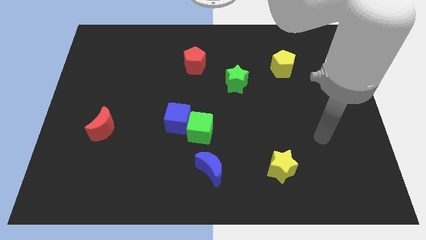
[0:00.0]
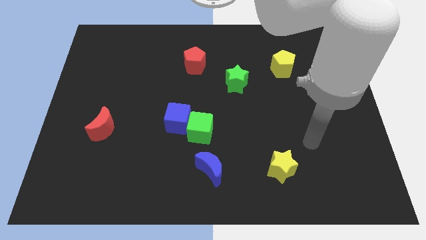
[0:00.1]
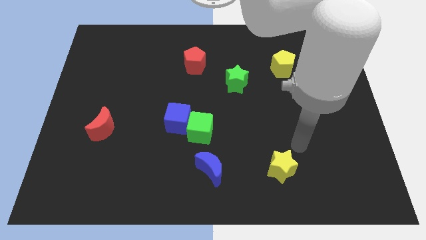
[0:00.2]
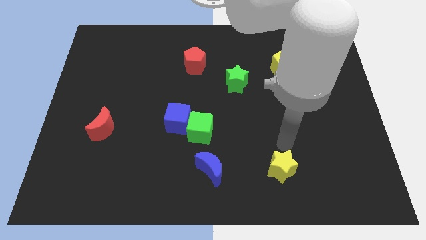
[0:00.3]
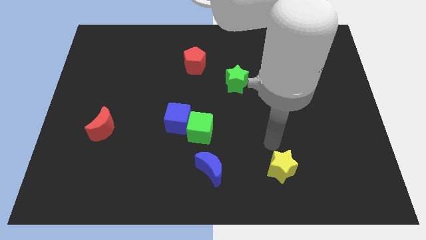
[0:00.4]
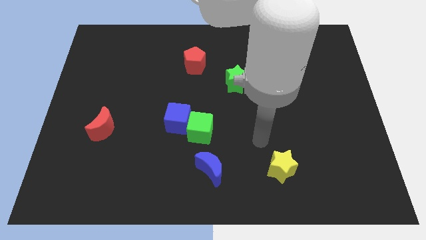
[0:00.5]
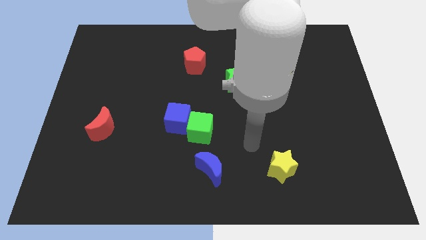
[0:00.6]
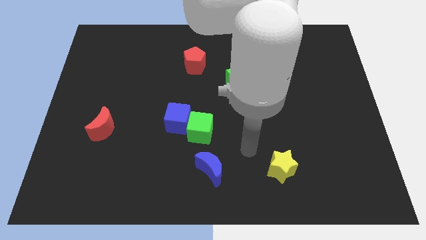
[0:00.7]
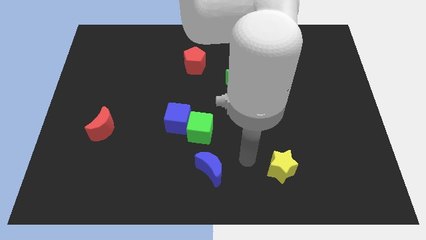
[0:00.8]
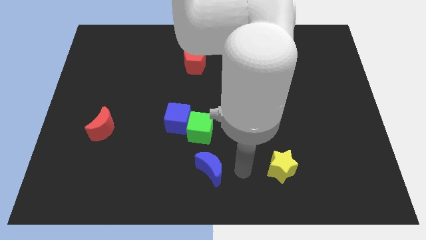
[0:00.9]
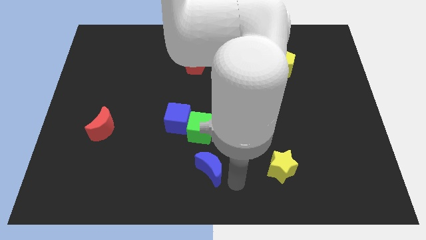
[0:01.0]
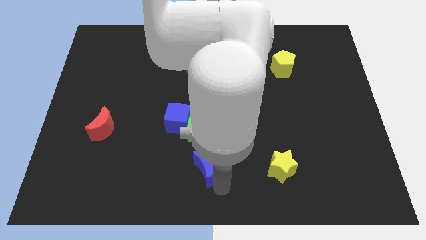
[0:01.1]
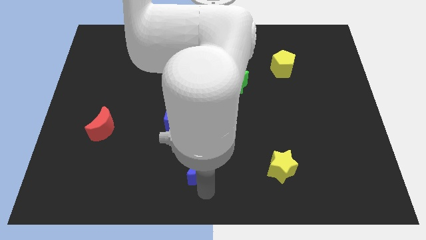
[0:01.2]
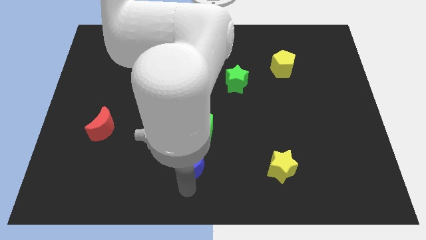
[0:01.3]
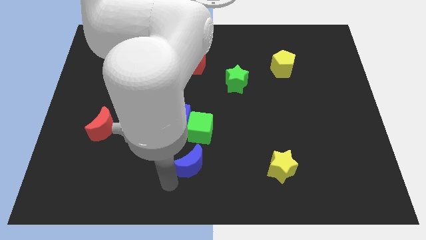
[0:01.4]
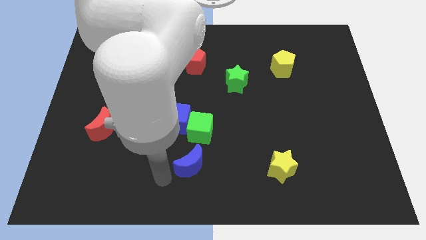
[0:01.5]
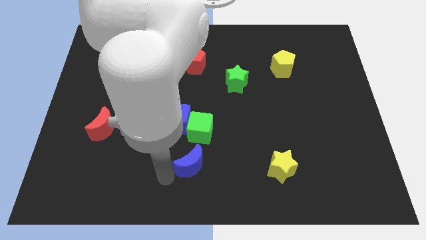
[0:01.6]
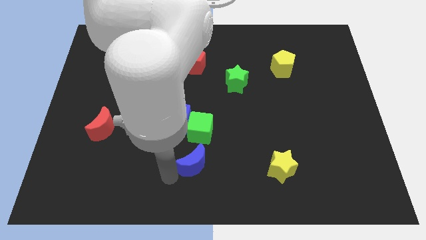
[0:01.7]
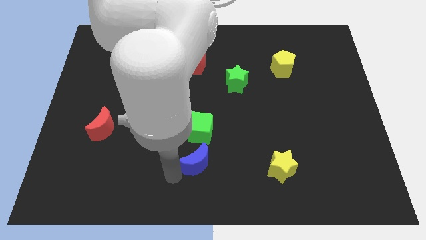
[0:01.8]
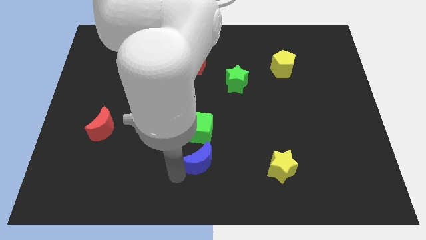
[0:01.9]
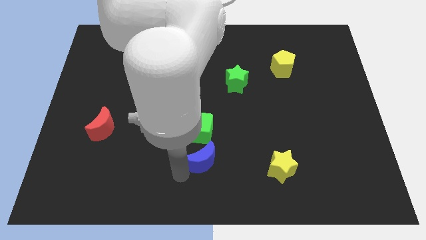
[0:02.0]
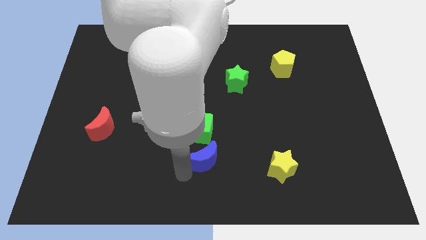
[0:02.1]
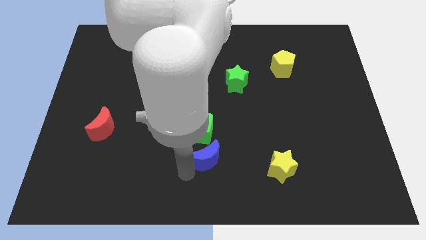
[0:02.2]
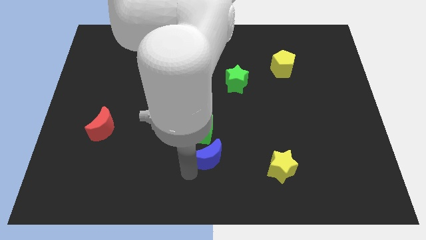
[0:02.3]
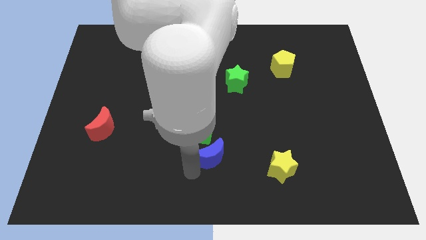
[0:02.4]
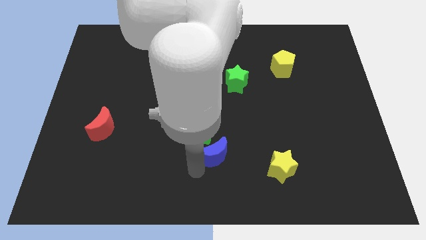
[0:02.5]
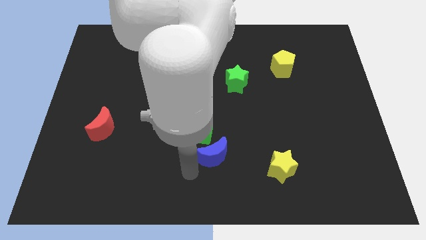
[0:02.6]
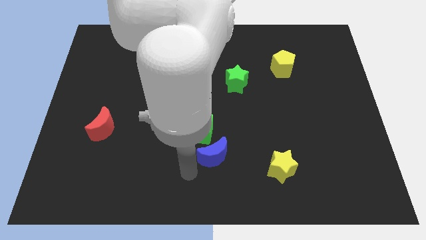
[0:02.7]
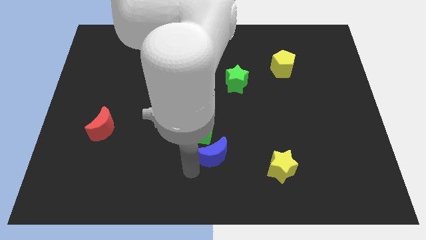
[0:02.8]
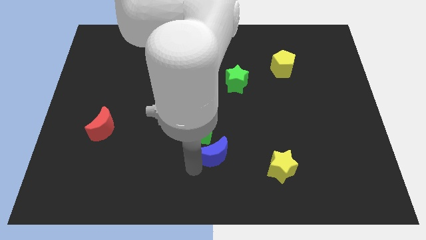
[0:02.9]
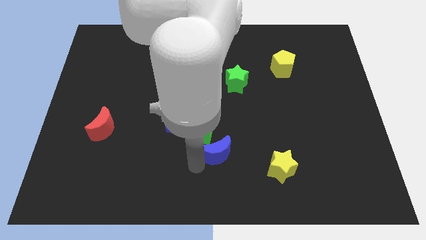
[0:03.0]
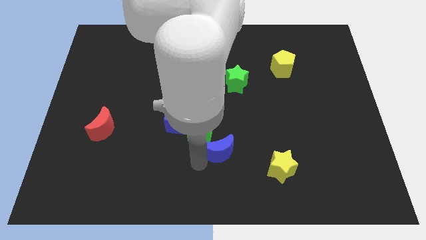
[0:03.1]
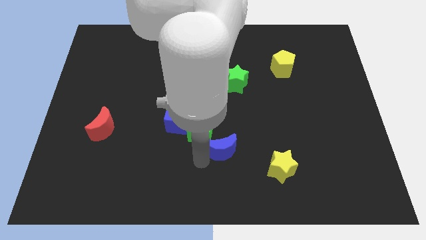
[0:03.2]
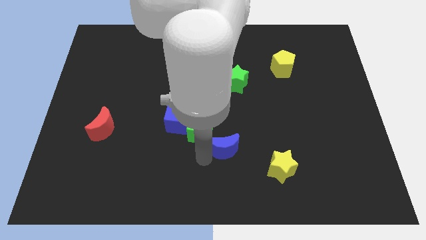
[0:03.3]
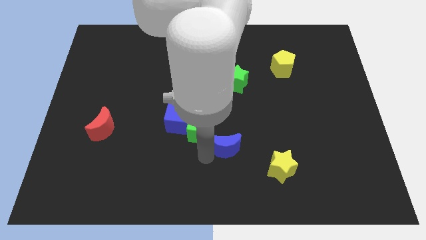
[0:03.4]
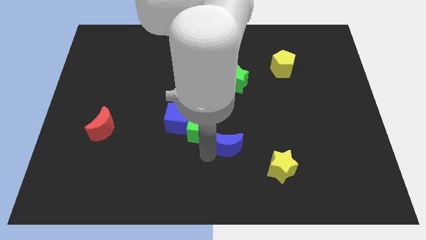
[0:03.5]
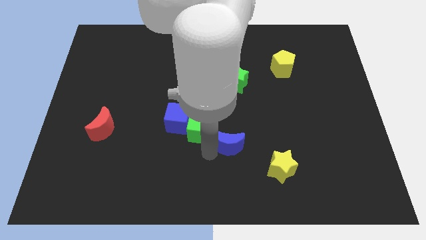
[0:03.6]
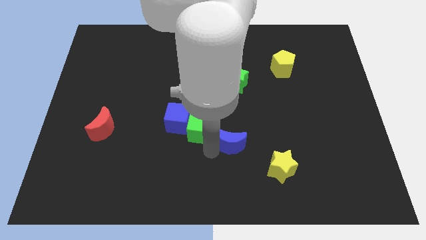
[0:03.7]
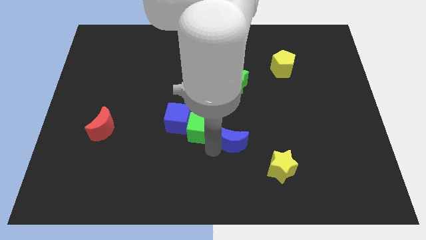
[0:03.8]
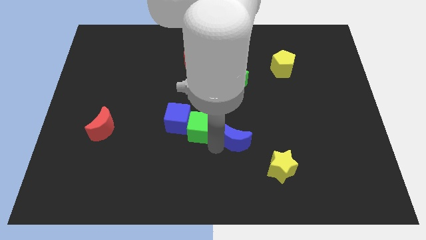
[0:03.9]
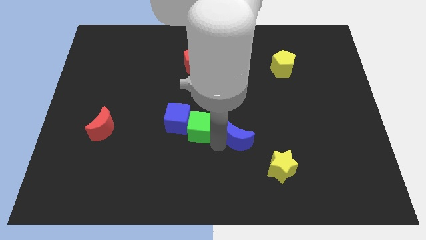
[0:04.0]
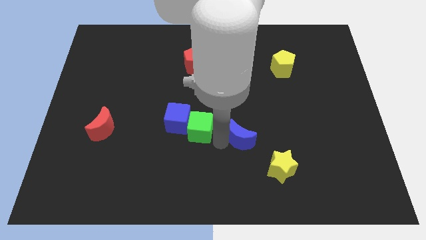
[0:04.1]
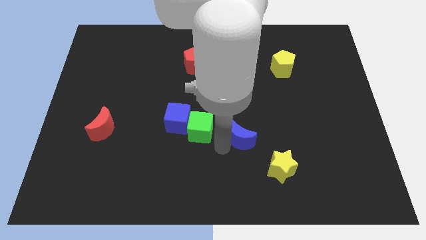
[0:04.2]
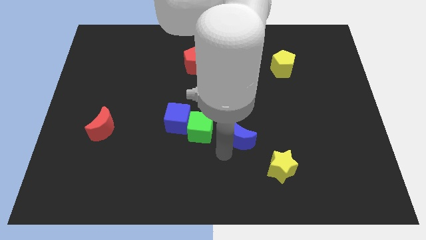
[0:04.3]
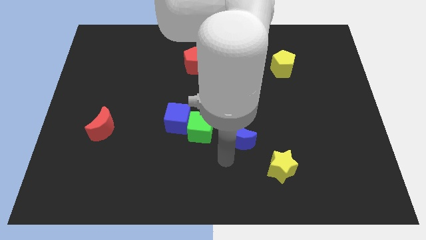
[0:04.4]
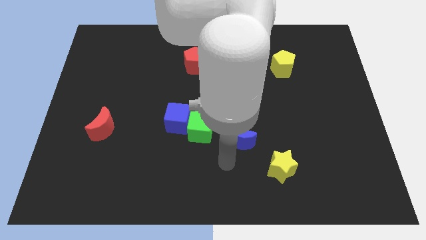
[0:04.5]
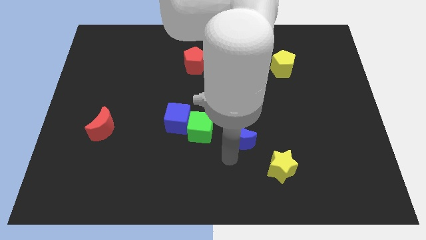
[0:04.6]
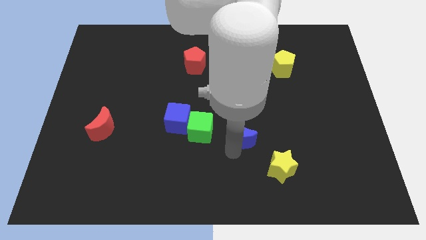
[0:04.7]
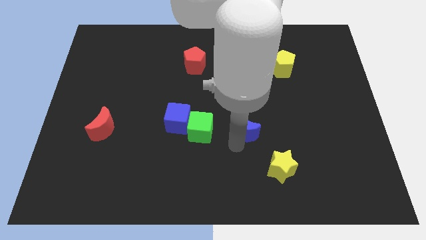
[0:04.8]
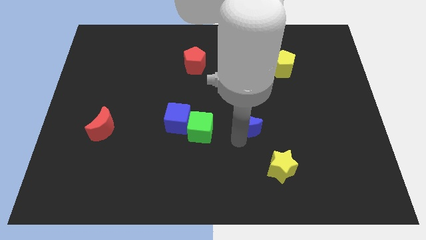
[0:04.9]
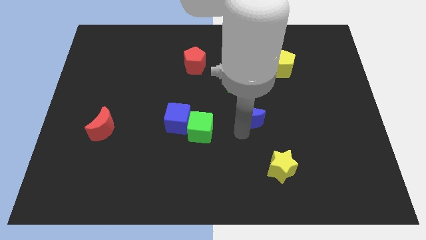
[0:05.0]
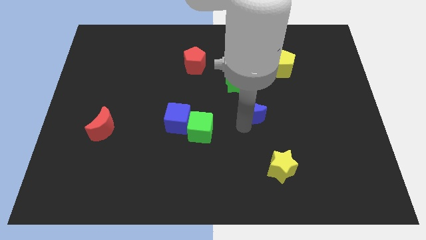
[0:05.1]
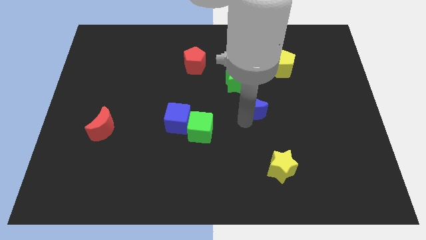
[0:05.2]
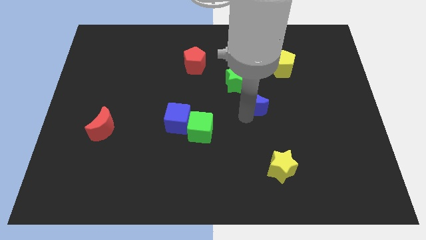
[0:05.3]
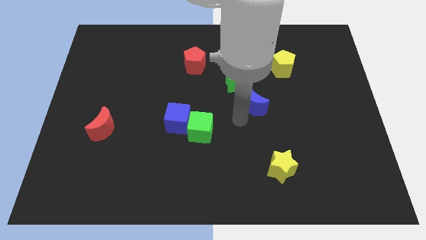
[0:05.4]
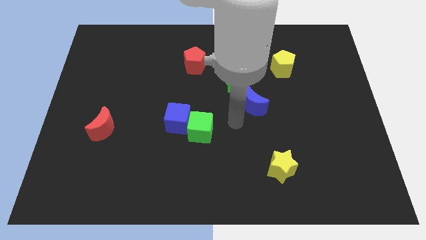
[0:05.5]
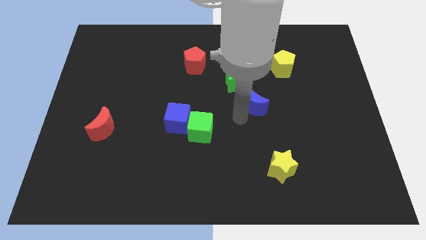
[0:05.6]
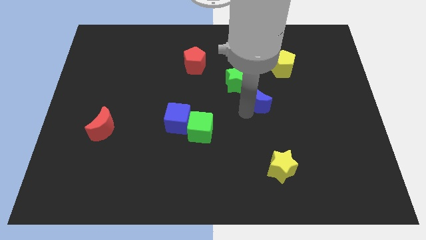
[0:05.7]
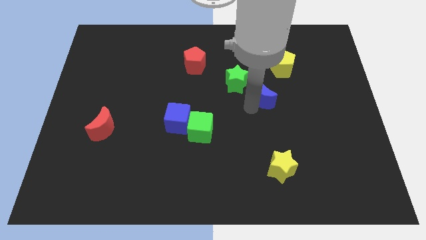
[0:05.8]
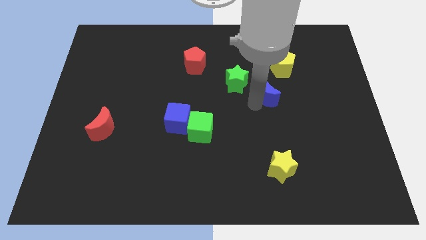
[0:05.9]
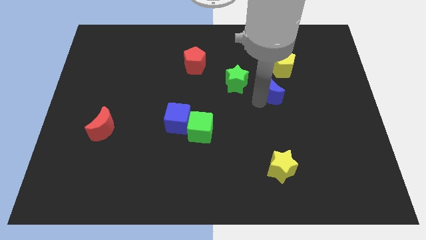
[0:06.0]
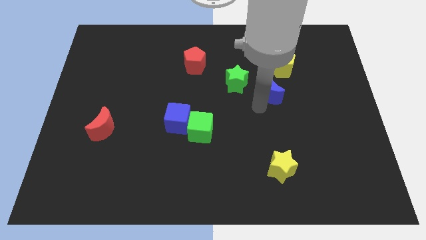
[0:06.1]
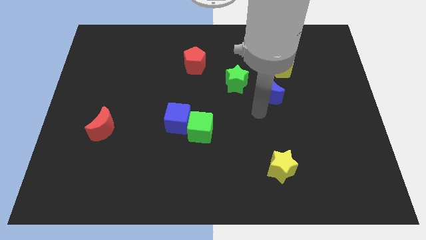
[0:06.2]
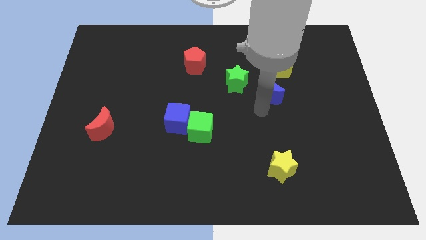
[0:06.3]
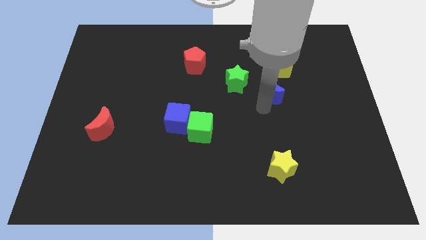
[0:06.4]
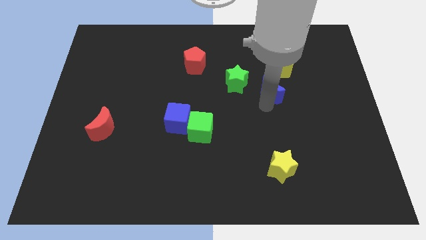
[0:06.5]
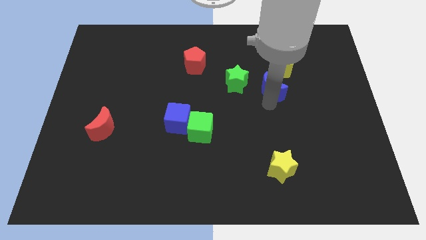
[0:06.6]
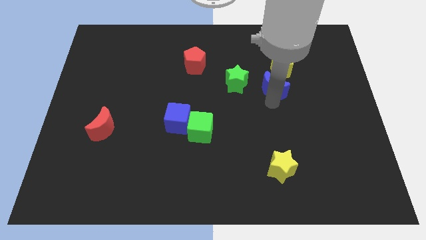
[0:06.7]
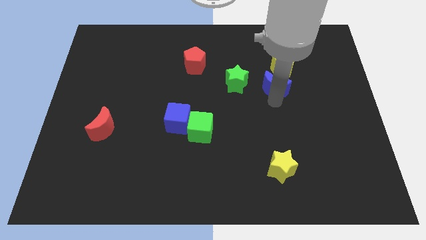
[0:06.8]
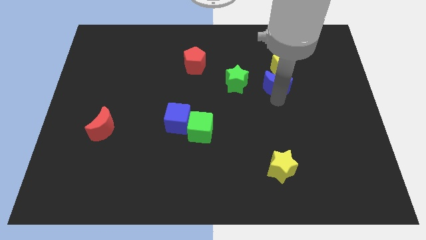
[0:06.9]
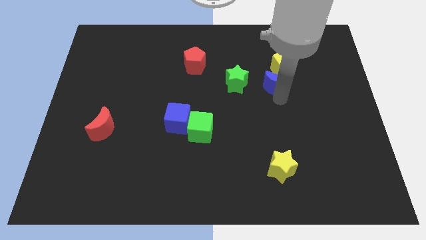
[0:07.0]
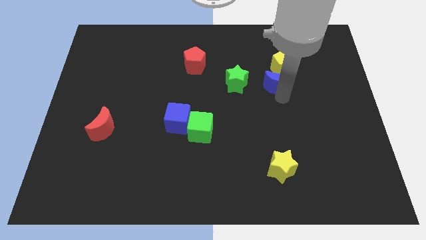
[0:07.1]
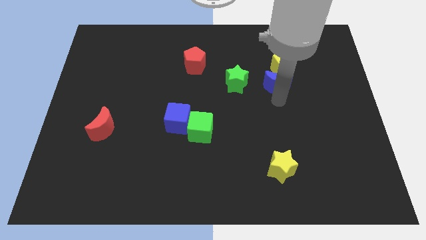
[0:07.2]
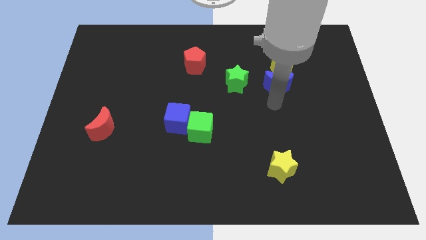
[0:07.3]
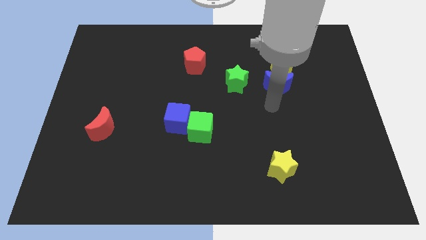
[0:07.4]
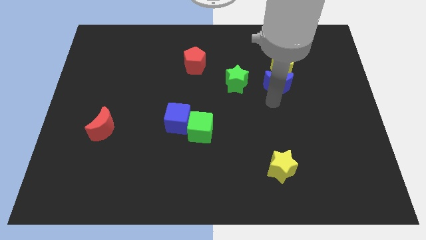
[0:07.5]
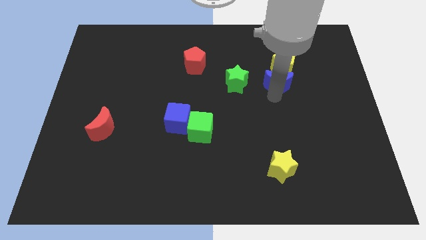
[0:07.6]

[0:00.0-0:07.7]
slide the blue moon next to the yellow pentagon
